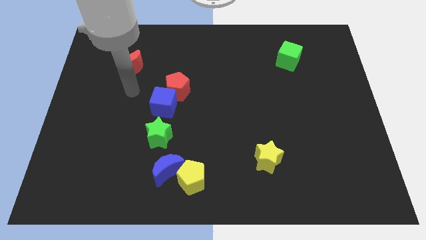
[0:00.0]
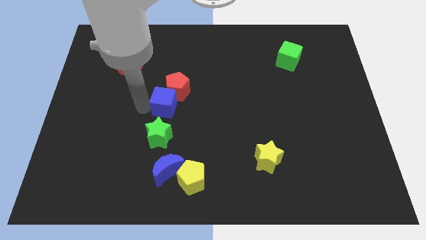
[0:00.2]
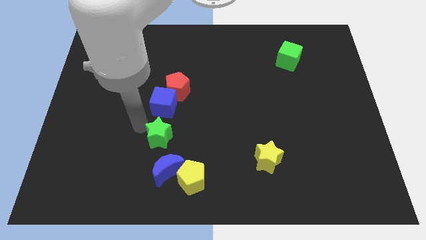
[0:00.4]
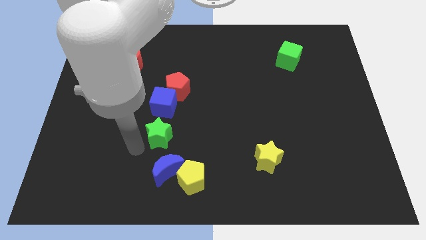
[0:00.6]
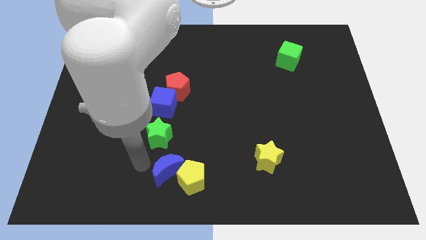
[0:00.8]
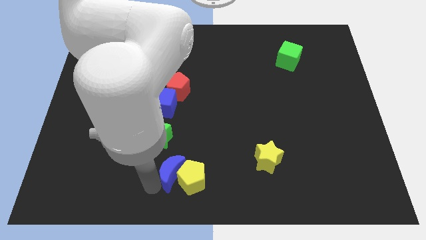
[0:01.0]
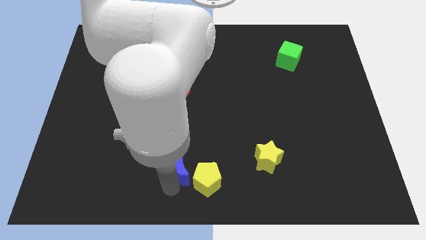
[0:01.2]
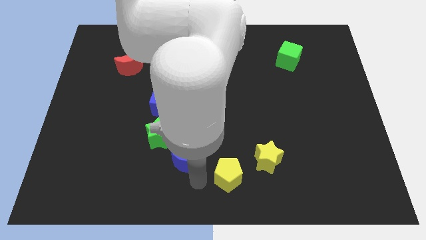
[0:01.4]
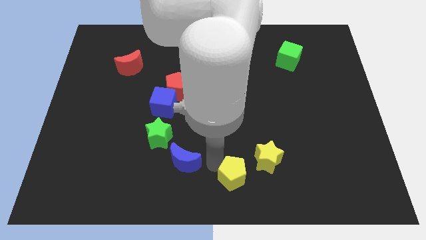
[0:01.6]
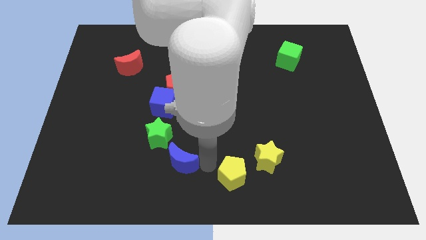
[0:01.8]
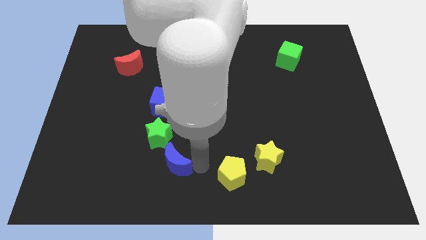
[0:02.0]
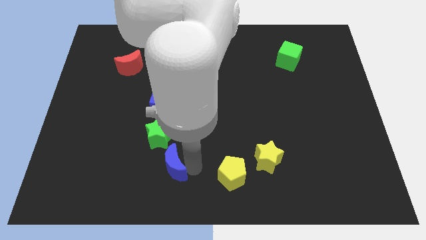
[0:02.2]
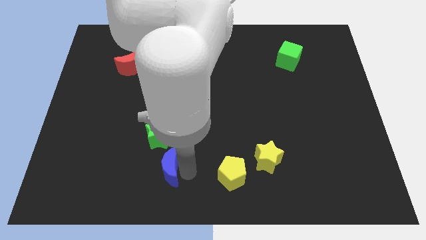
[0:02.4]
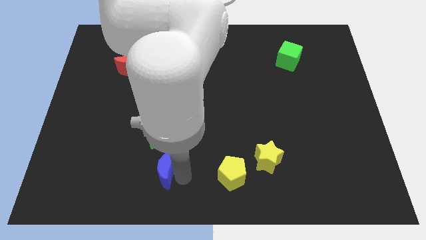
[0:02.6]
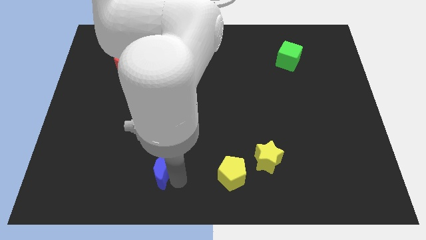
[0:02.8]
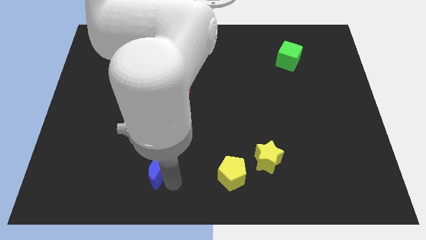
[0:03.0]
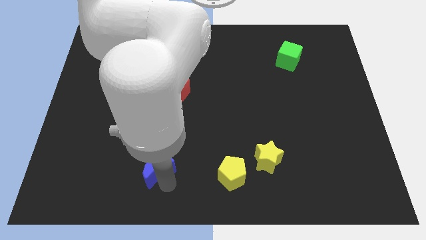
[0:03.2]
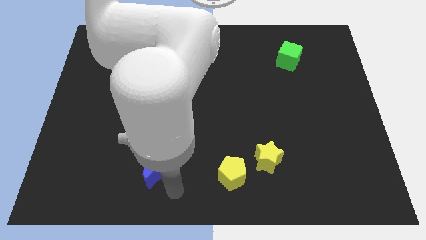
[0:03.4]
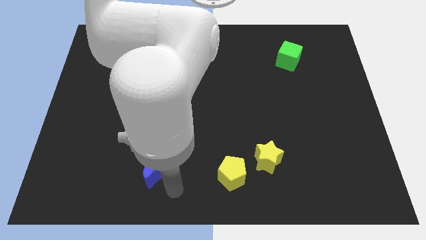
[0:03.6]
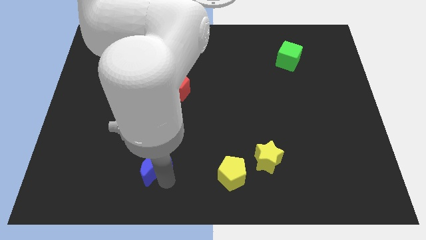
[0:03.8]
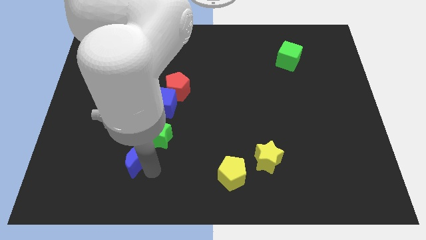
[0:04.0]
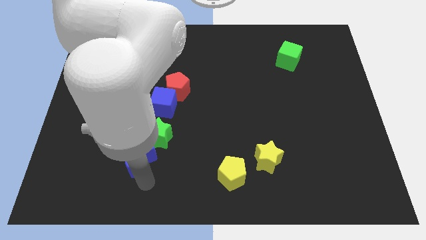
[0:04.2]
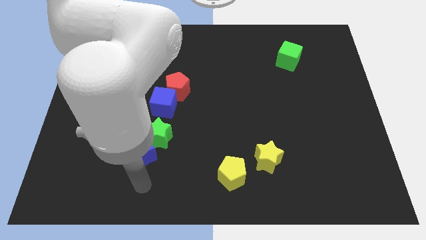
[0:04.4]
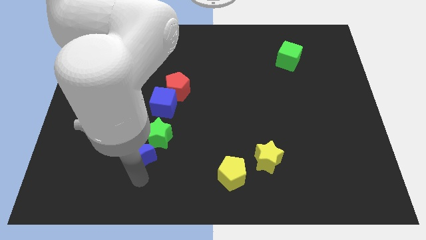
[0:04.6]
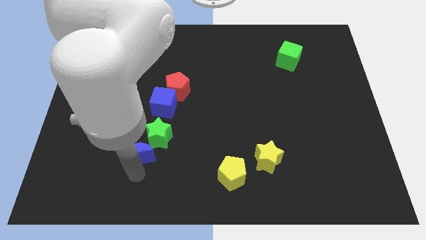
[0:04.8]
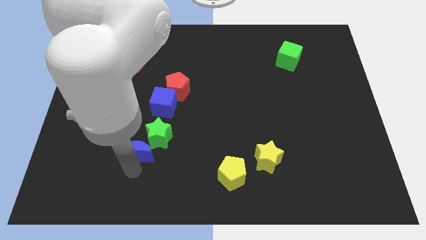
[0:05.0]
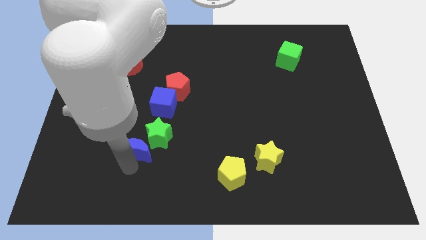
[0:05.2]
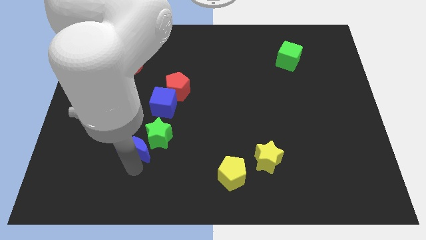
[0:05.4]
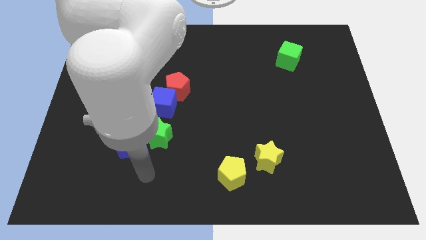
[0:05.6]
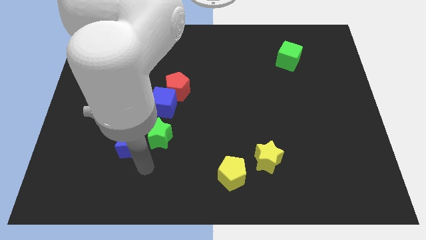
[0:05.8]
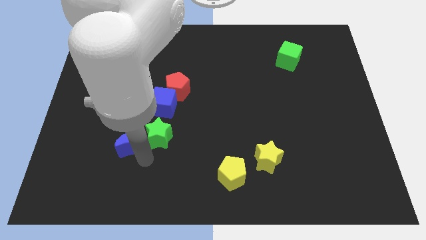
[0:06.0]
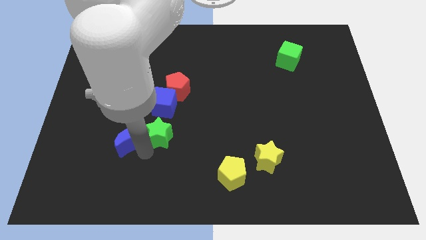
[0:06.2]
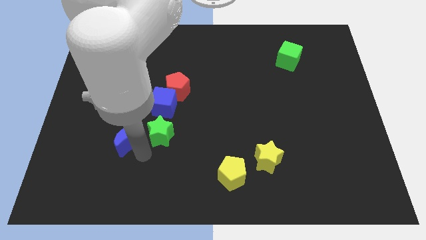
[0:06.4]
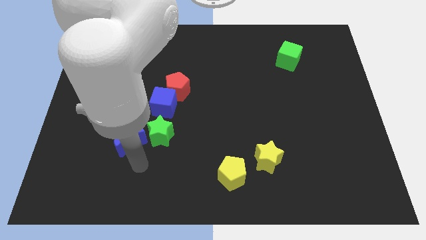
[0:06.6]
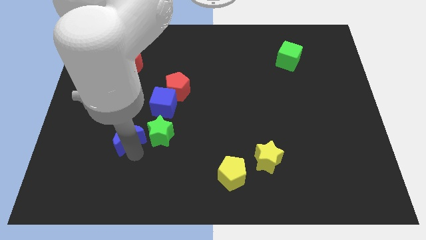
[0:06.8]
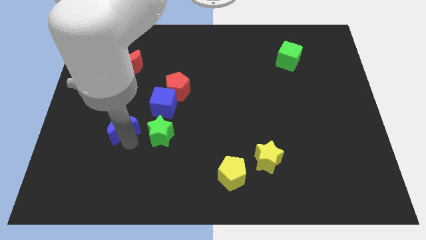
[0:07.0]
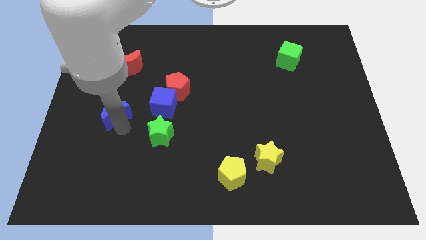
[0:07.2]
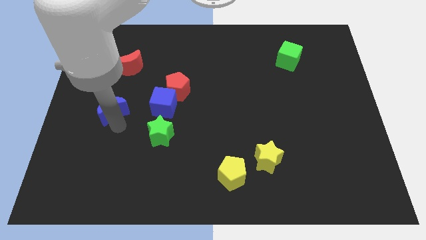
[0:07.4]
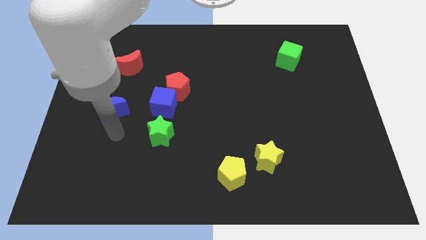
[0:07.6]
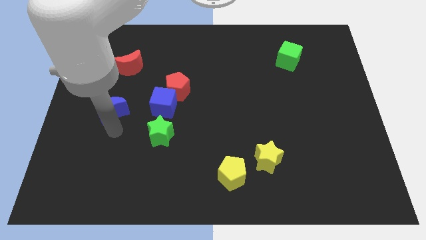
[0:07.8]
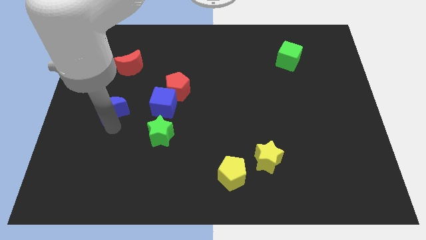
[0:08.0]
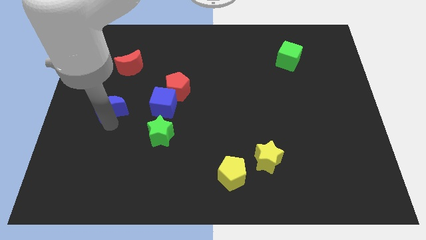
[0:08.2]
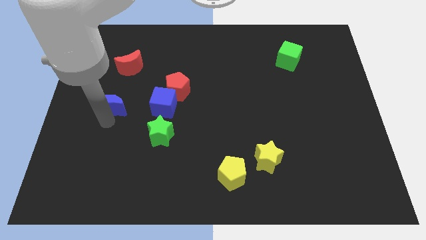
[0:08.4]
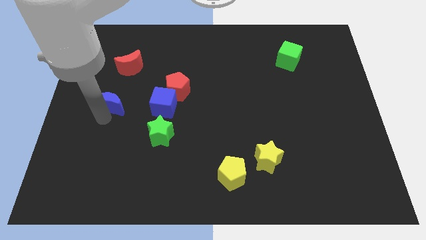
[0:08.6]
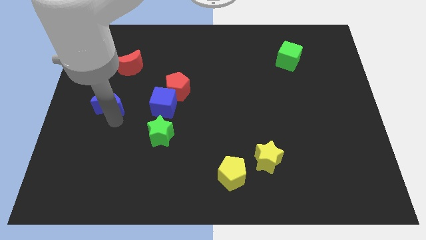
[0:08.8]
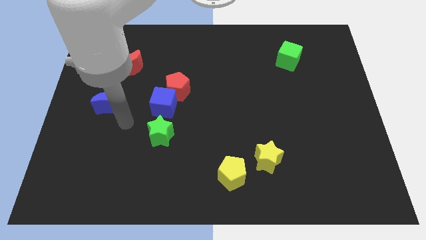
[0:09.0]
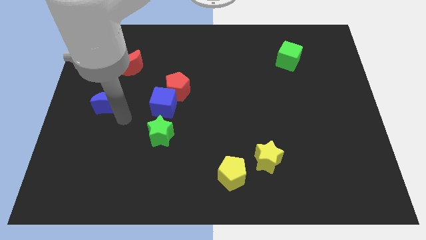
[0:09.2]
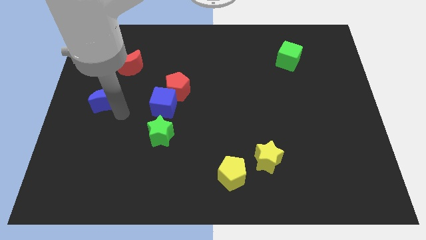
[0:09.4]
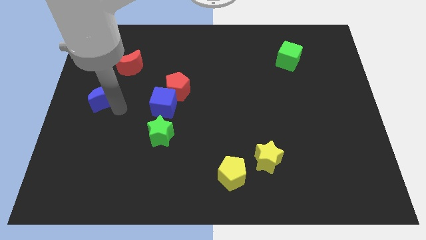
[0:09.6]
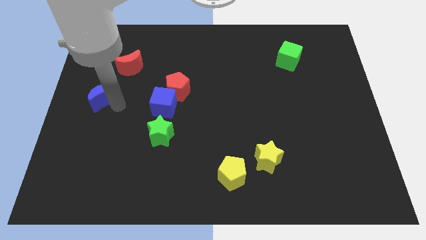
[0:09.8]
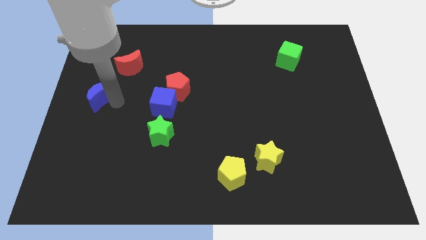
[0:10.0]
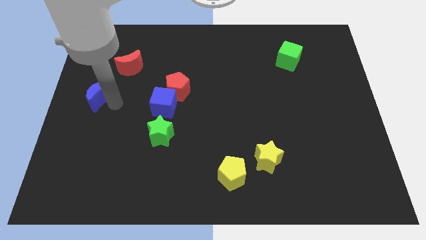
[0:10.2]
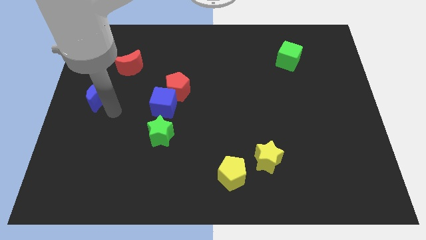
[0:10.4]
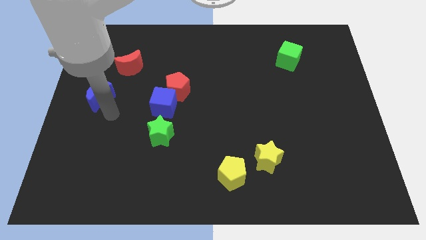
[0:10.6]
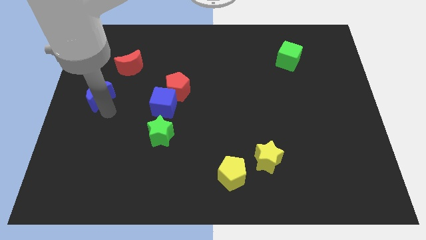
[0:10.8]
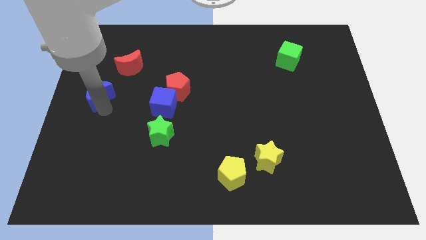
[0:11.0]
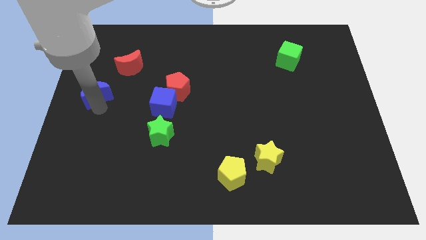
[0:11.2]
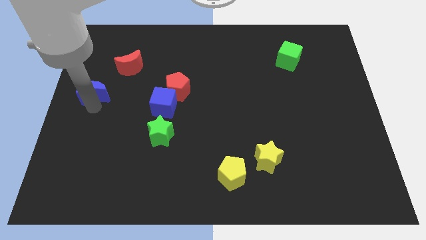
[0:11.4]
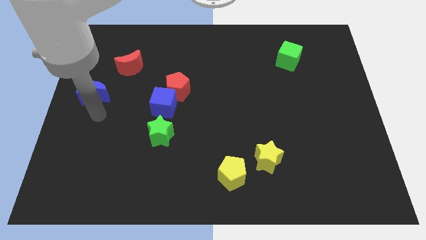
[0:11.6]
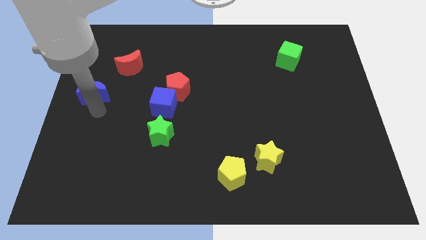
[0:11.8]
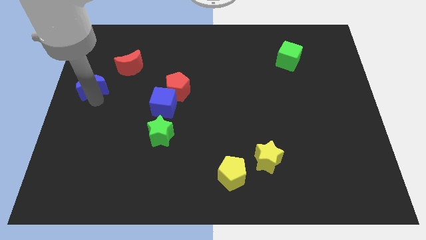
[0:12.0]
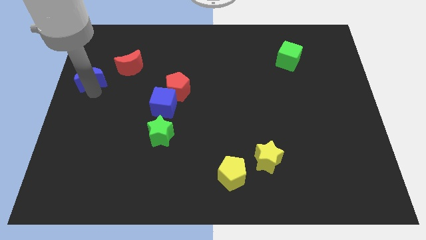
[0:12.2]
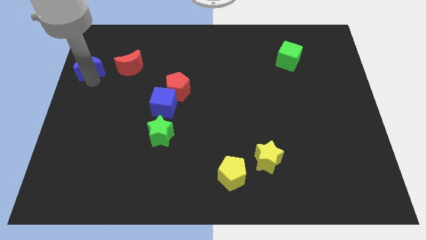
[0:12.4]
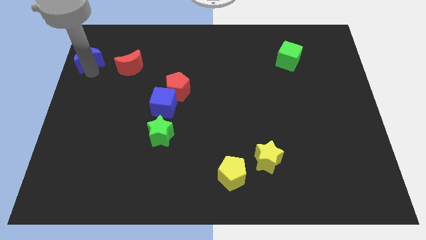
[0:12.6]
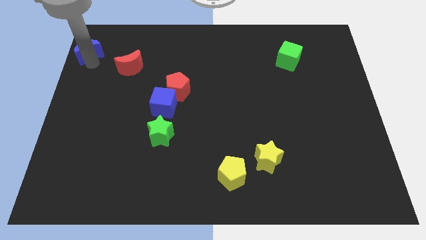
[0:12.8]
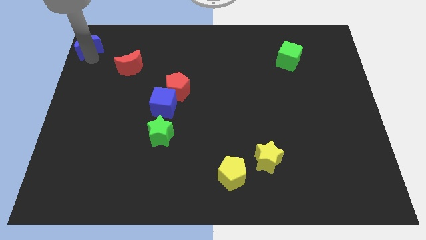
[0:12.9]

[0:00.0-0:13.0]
move the blue moon to the top left corner
